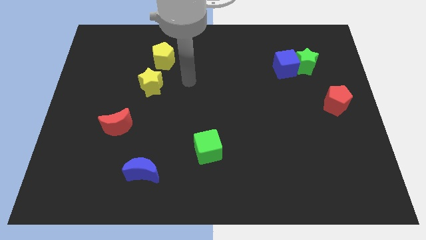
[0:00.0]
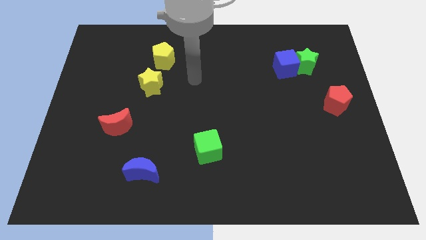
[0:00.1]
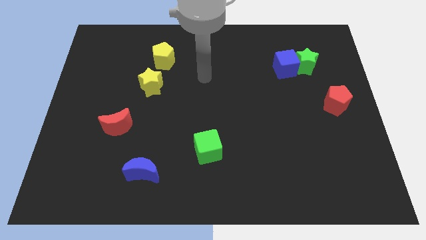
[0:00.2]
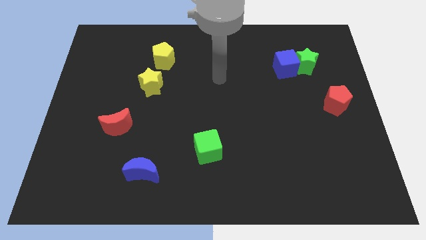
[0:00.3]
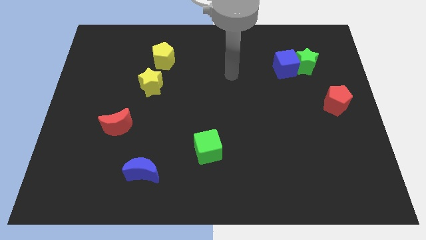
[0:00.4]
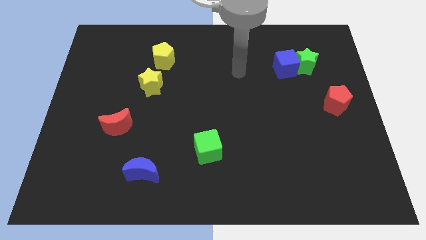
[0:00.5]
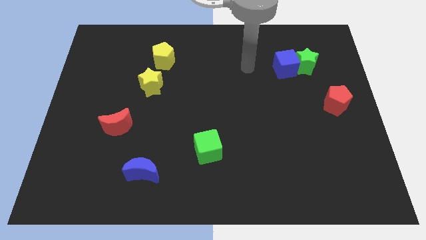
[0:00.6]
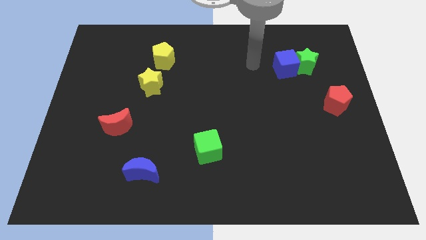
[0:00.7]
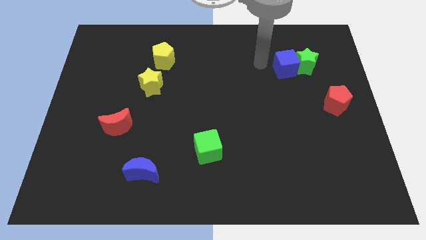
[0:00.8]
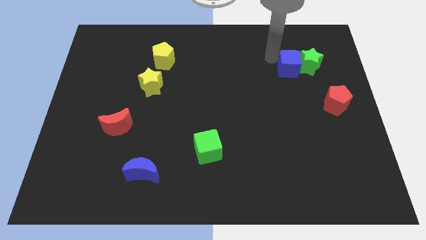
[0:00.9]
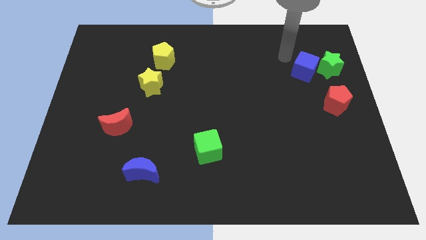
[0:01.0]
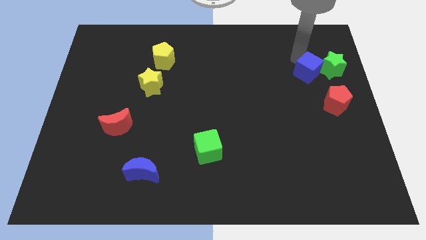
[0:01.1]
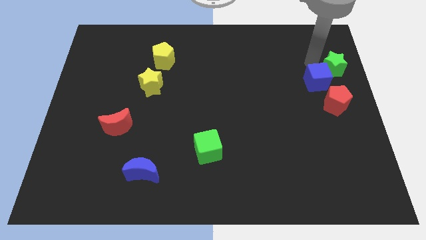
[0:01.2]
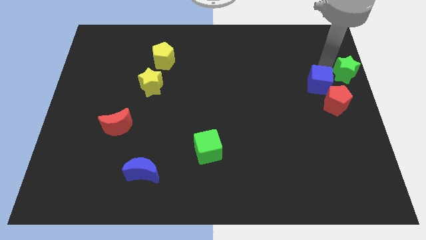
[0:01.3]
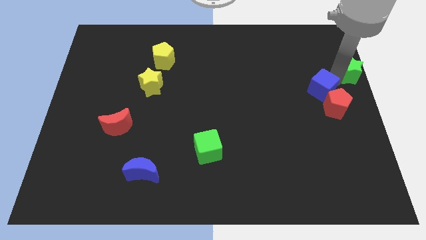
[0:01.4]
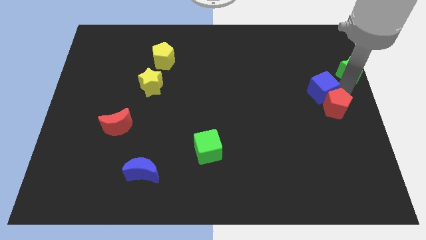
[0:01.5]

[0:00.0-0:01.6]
pull the blue cube apart from the green star

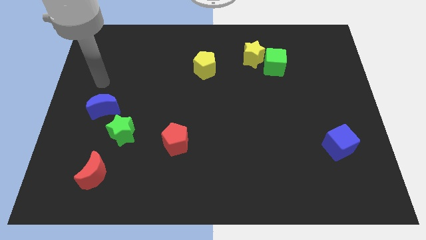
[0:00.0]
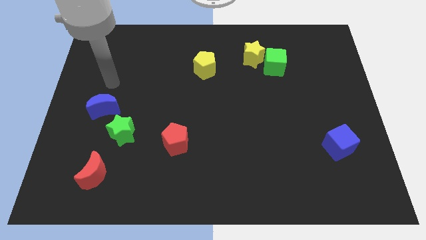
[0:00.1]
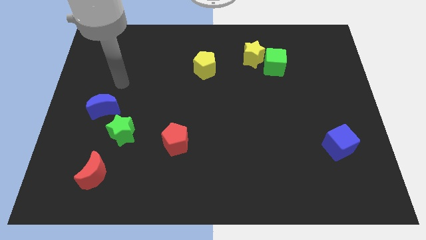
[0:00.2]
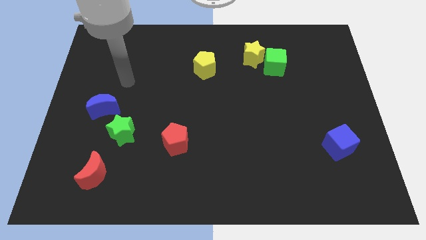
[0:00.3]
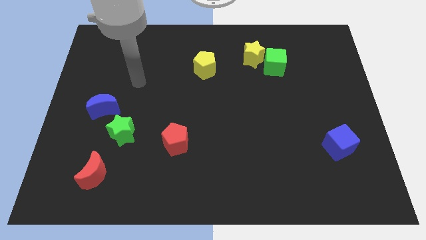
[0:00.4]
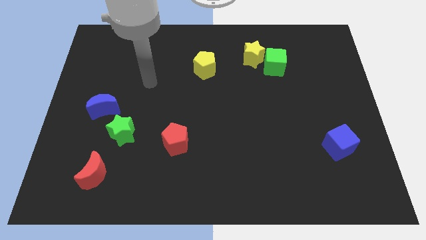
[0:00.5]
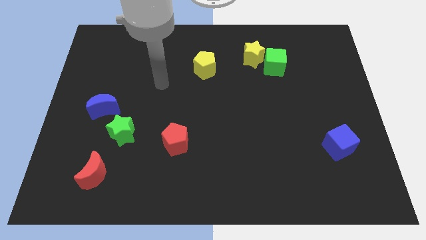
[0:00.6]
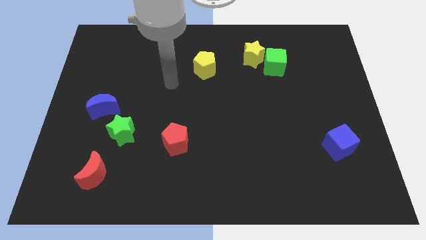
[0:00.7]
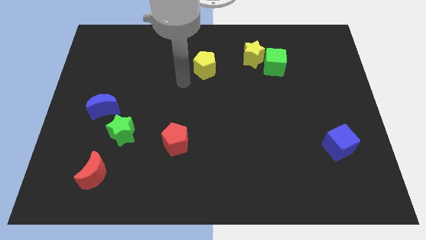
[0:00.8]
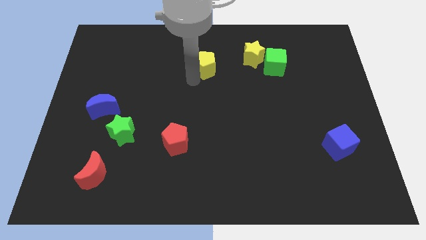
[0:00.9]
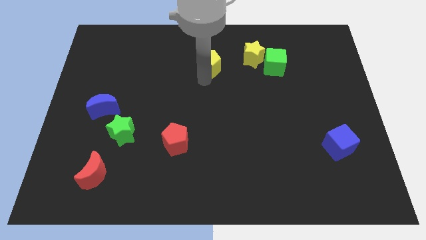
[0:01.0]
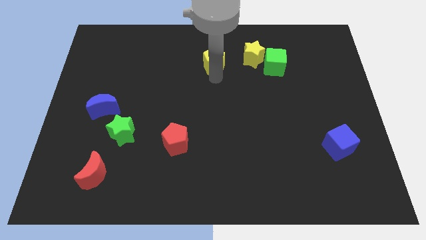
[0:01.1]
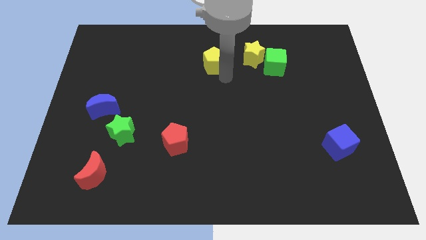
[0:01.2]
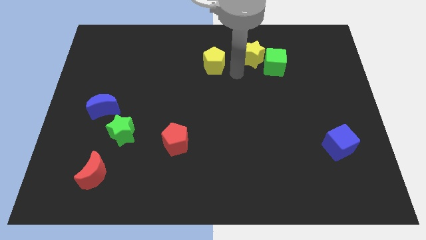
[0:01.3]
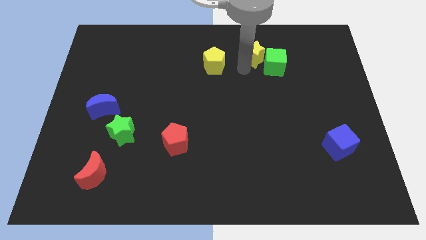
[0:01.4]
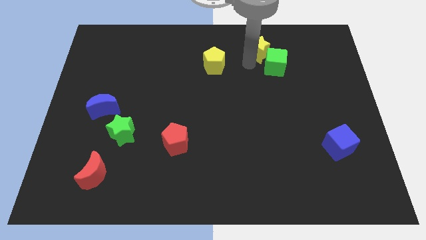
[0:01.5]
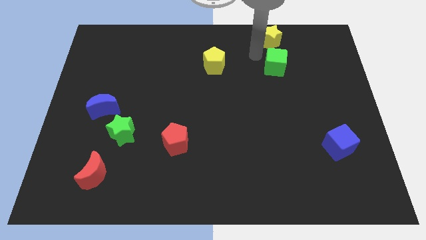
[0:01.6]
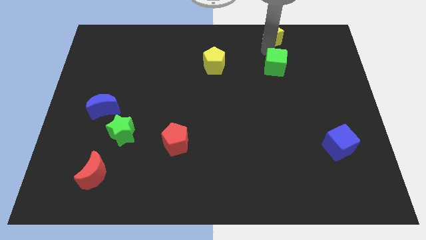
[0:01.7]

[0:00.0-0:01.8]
pull the green cube apart from the yellow star

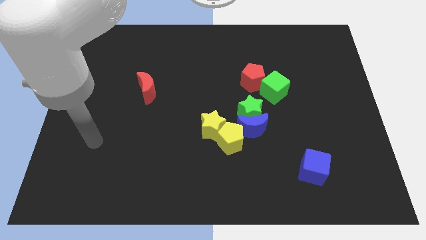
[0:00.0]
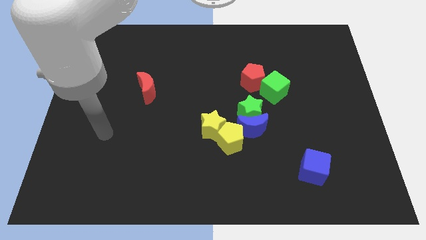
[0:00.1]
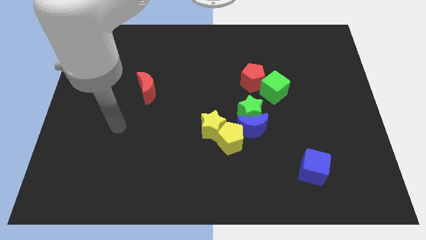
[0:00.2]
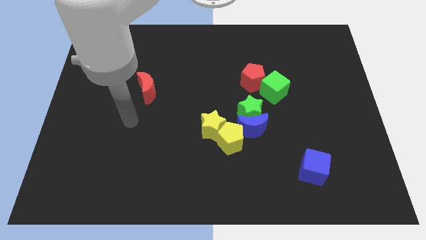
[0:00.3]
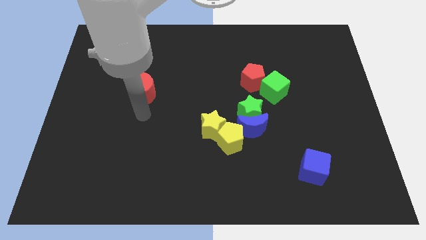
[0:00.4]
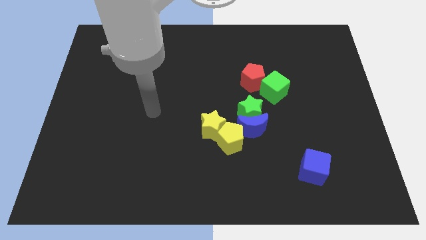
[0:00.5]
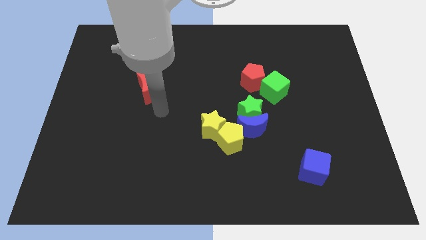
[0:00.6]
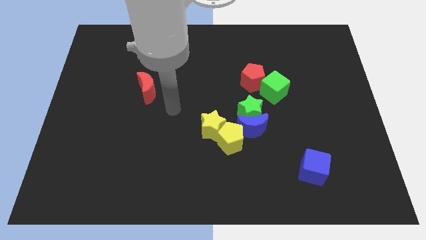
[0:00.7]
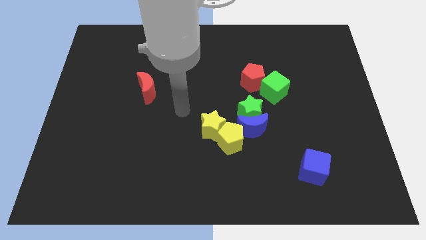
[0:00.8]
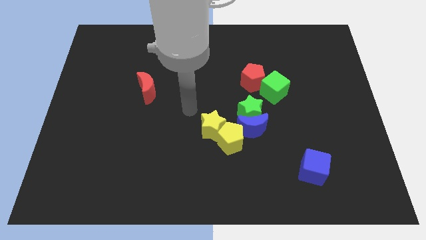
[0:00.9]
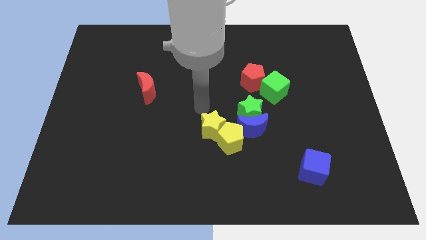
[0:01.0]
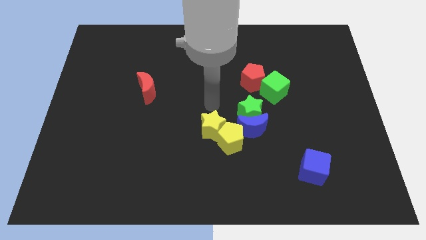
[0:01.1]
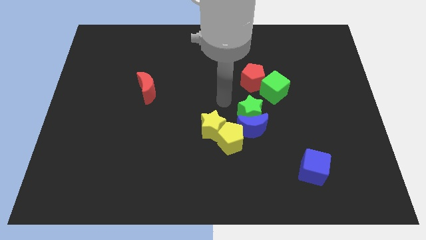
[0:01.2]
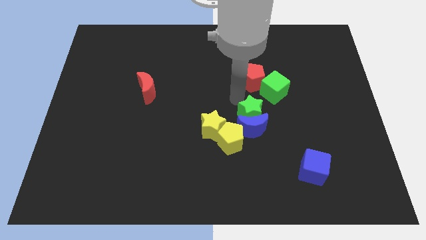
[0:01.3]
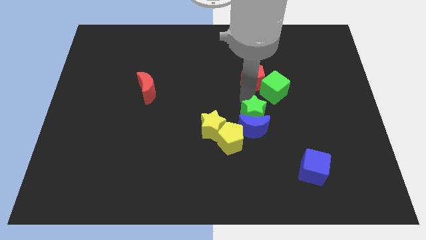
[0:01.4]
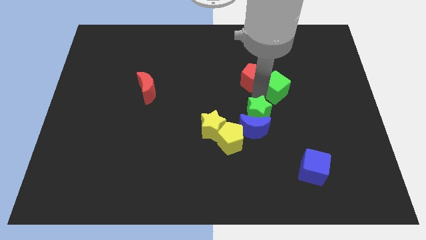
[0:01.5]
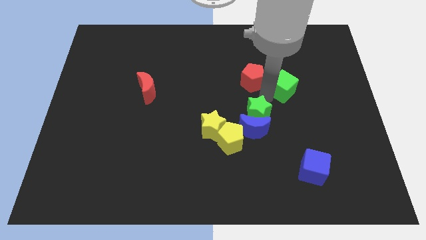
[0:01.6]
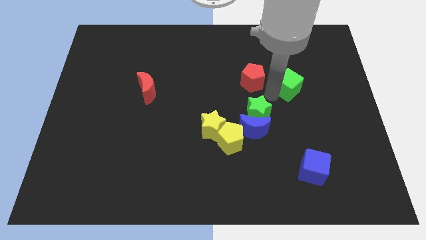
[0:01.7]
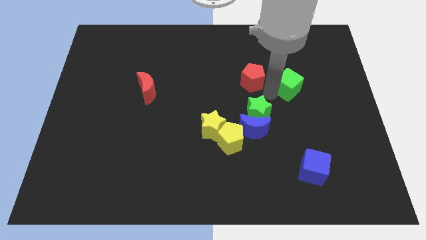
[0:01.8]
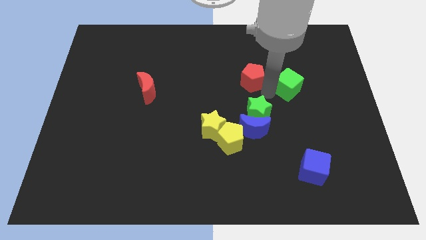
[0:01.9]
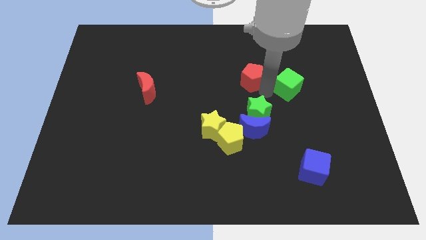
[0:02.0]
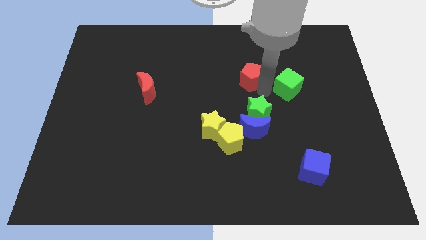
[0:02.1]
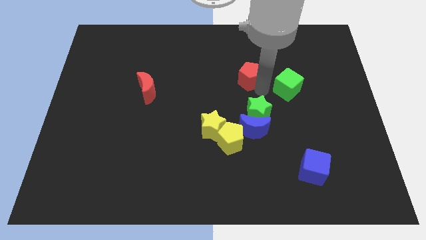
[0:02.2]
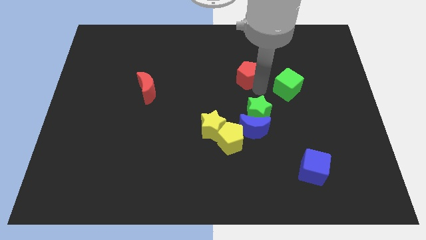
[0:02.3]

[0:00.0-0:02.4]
pull the red pentagon apart from the green cube

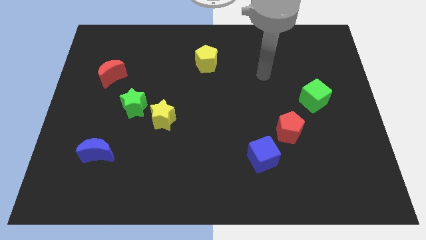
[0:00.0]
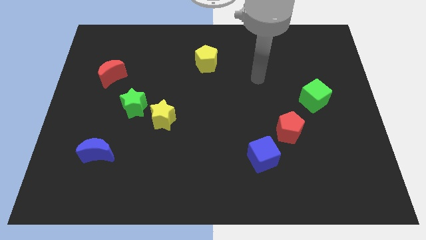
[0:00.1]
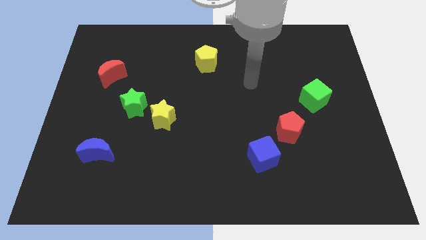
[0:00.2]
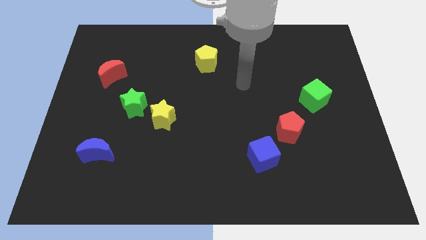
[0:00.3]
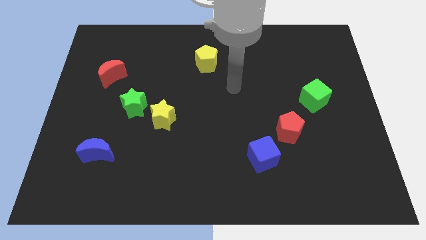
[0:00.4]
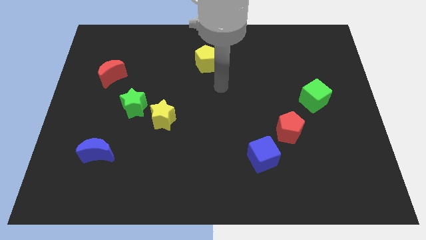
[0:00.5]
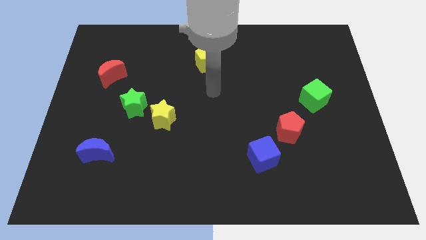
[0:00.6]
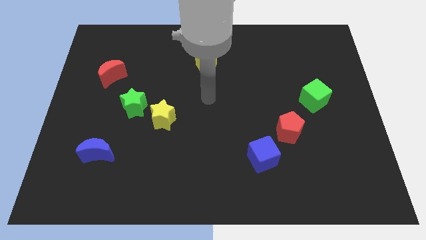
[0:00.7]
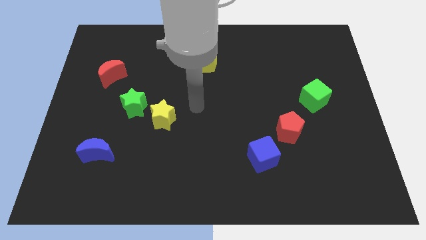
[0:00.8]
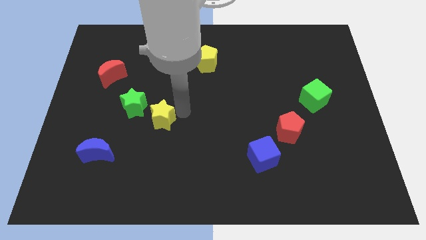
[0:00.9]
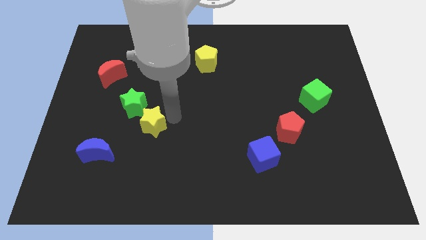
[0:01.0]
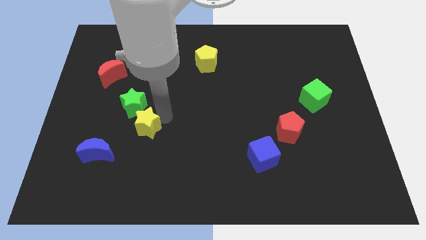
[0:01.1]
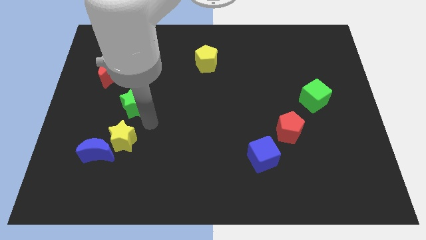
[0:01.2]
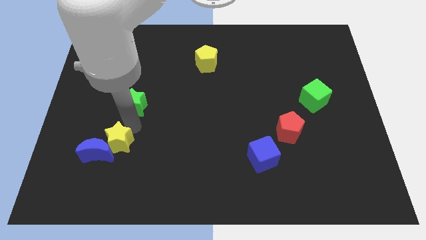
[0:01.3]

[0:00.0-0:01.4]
pull the green star apart from the yellow star

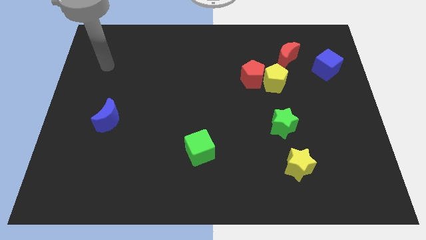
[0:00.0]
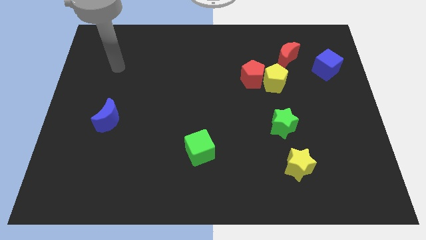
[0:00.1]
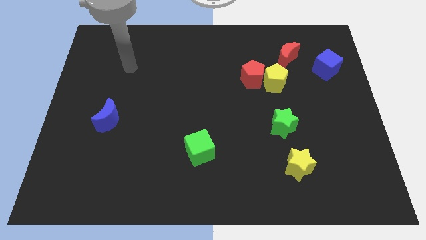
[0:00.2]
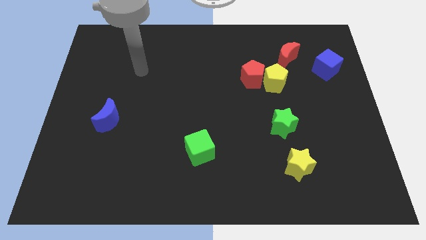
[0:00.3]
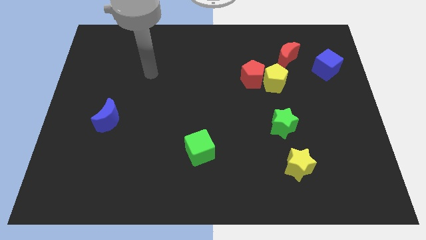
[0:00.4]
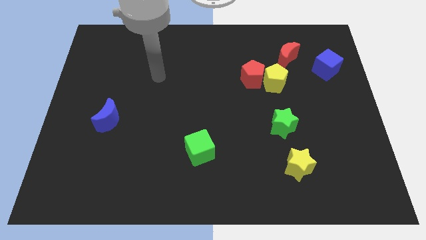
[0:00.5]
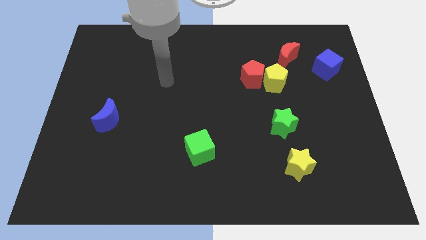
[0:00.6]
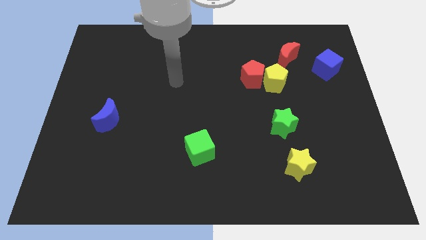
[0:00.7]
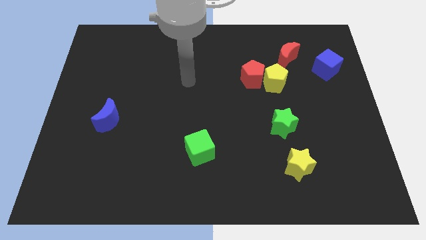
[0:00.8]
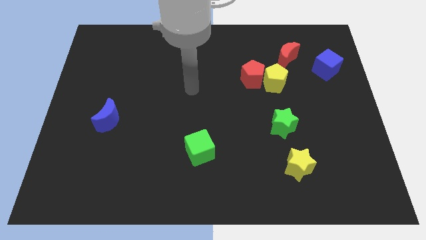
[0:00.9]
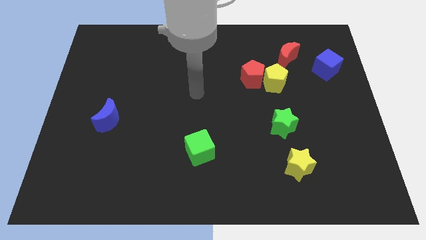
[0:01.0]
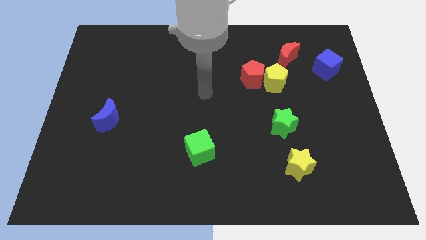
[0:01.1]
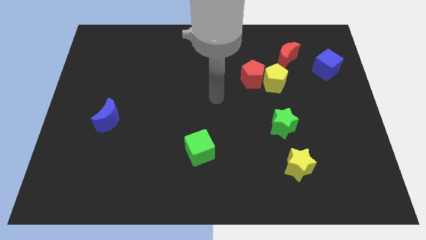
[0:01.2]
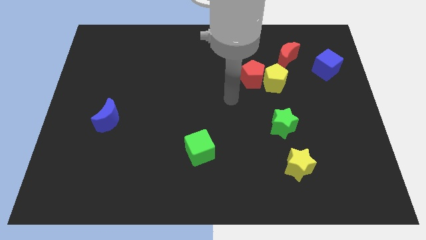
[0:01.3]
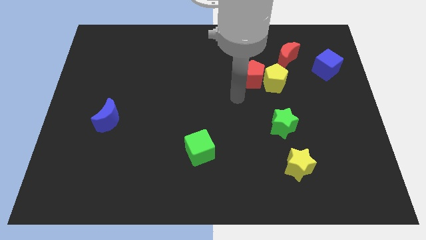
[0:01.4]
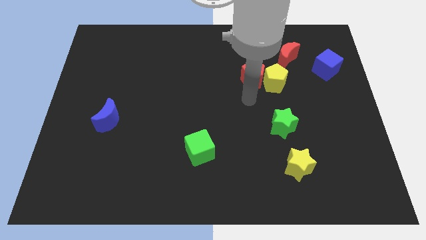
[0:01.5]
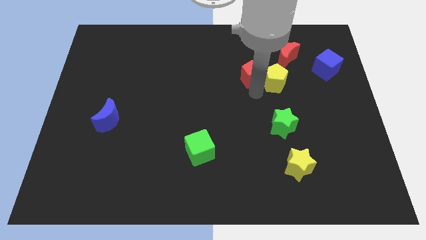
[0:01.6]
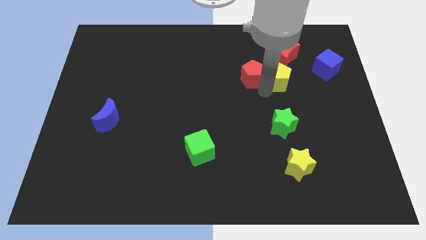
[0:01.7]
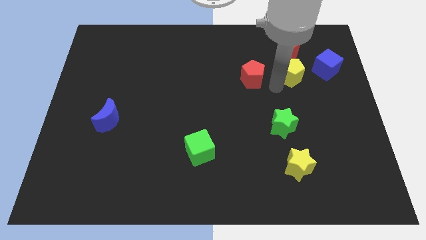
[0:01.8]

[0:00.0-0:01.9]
move the red pentagon away from the yellow pentagon

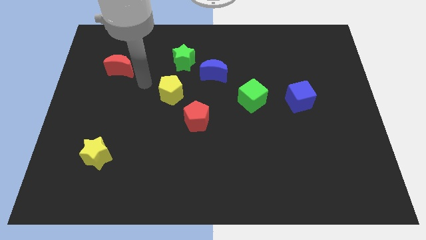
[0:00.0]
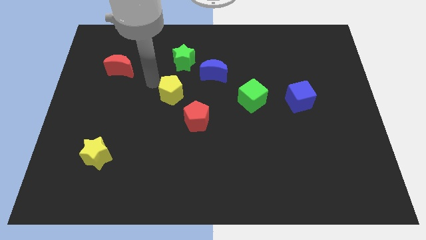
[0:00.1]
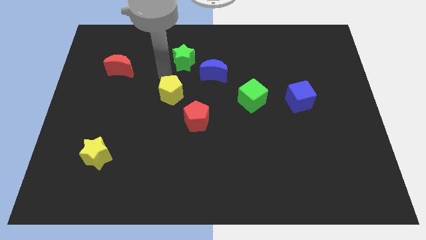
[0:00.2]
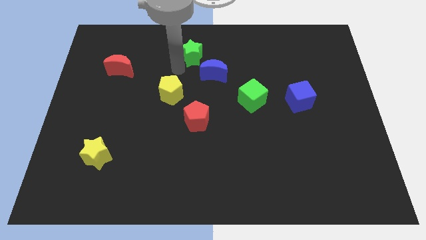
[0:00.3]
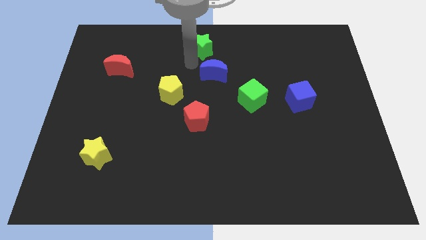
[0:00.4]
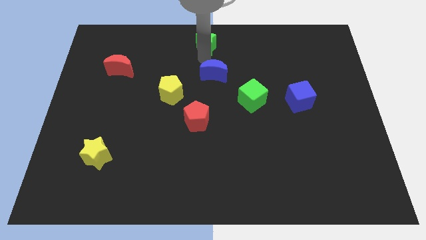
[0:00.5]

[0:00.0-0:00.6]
move the blue moon away from the green star
